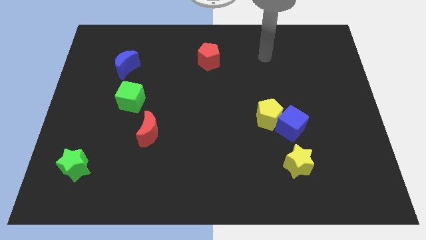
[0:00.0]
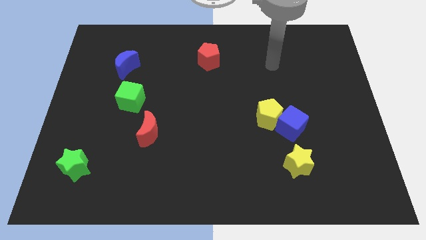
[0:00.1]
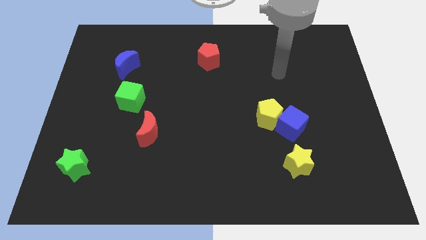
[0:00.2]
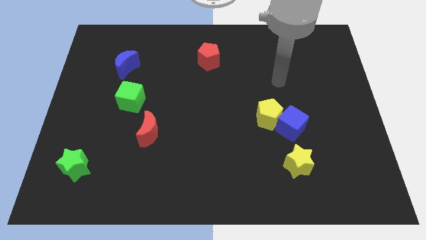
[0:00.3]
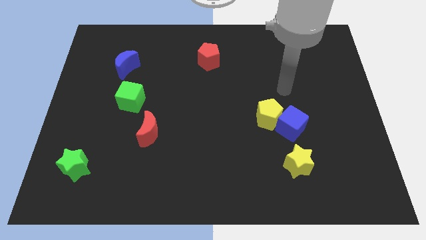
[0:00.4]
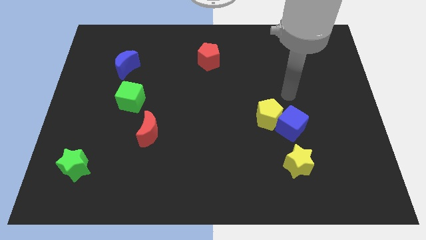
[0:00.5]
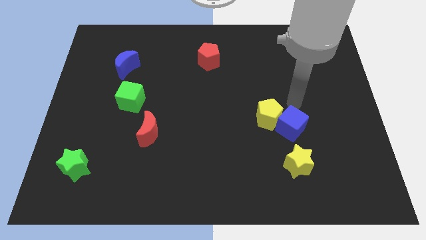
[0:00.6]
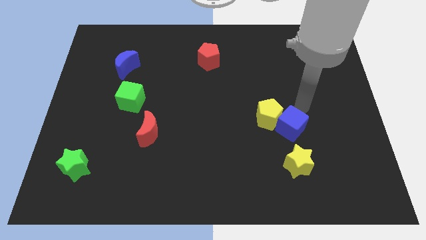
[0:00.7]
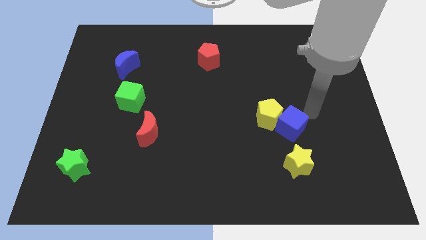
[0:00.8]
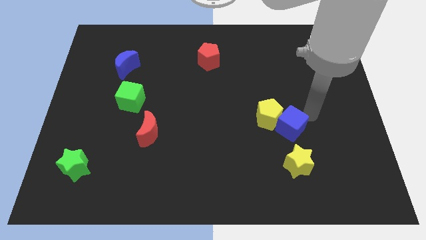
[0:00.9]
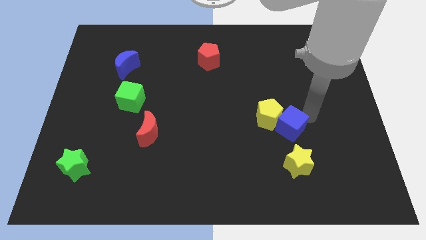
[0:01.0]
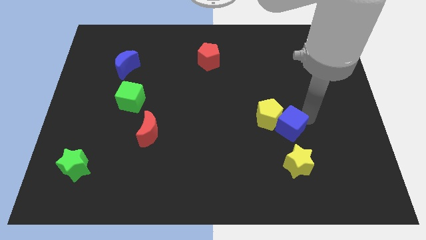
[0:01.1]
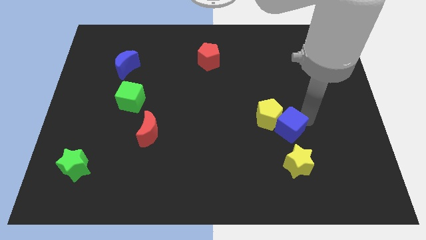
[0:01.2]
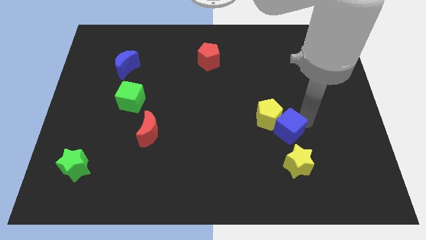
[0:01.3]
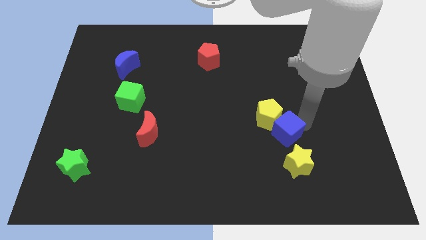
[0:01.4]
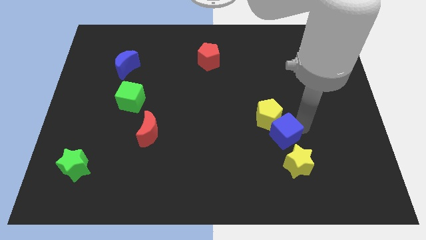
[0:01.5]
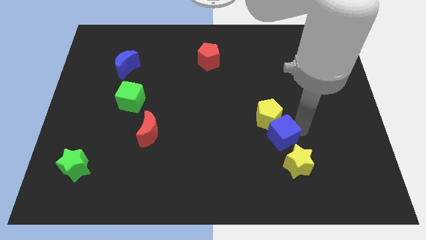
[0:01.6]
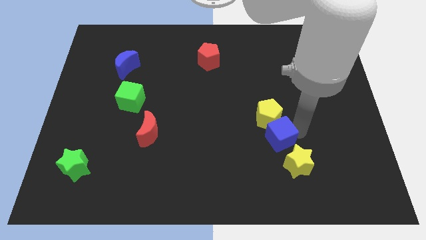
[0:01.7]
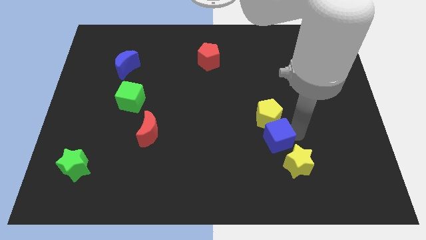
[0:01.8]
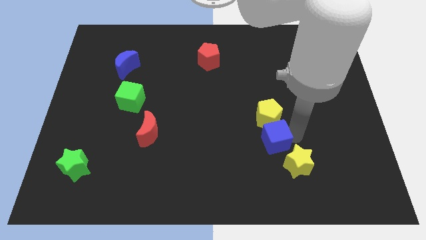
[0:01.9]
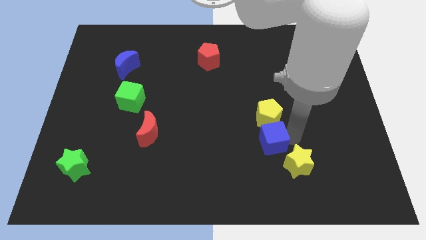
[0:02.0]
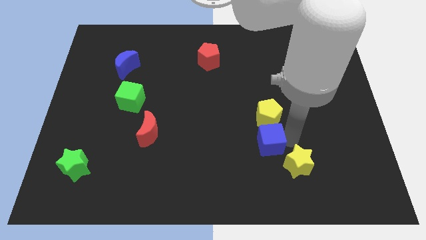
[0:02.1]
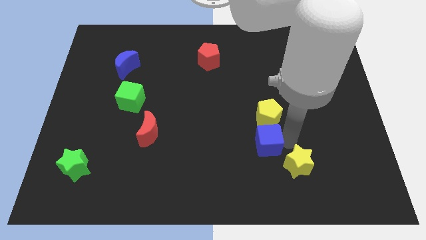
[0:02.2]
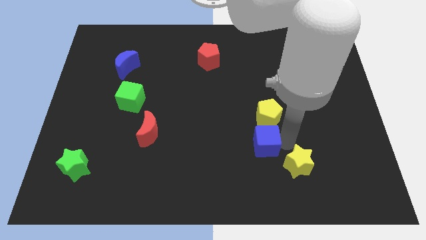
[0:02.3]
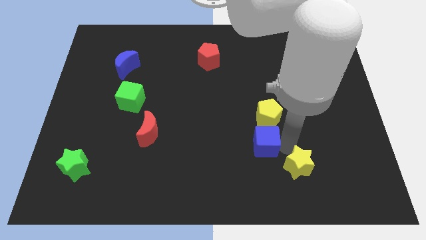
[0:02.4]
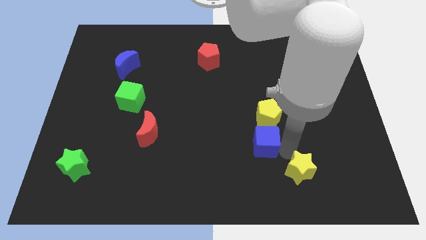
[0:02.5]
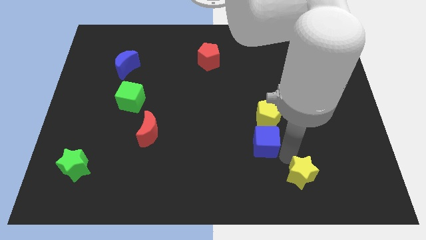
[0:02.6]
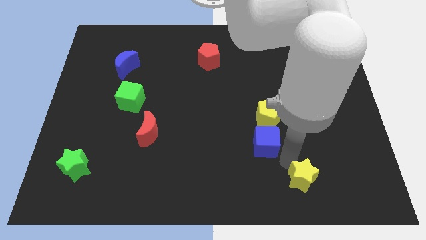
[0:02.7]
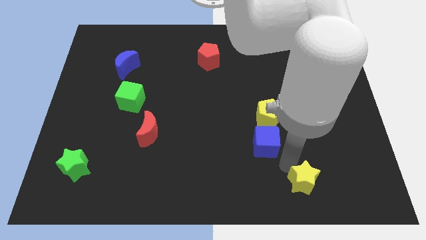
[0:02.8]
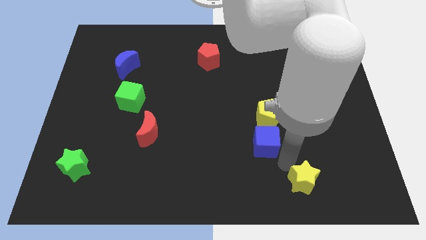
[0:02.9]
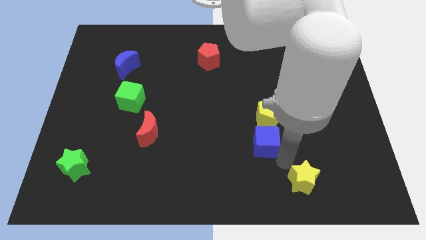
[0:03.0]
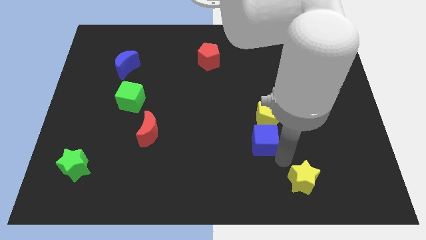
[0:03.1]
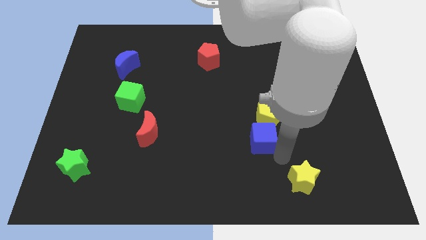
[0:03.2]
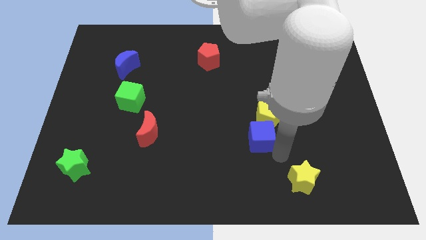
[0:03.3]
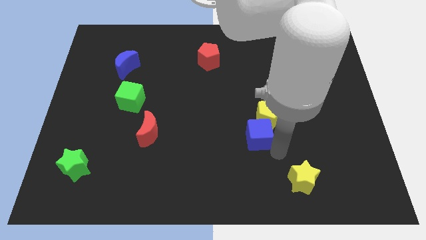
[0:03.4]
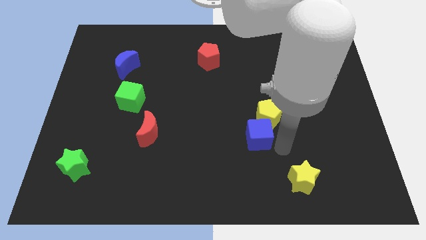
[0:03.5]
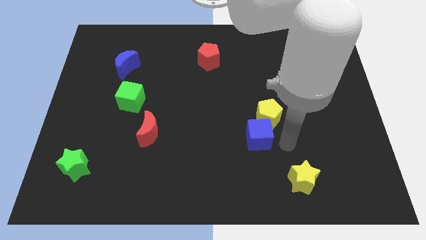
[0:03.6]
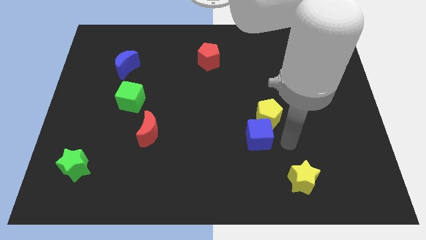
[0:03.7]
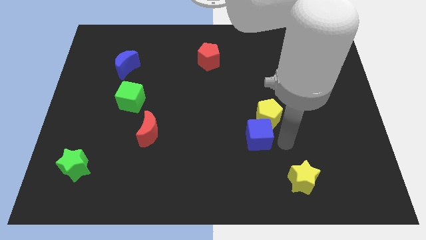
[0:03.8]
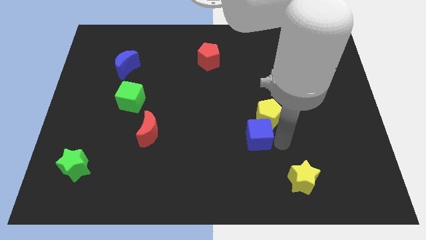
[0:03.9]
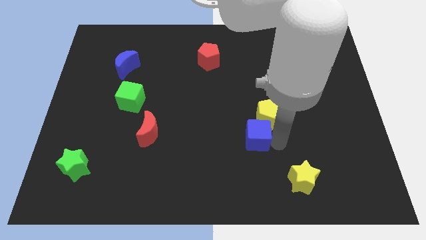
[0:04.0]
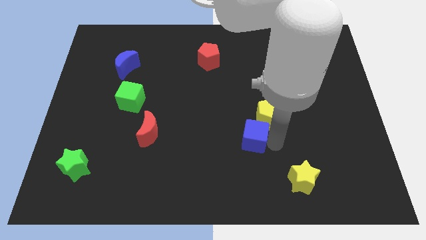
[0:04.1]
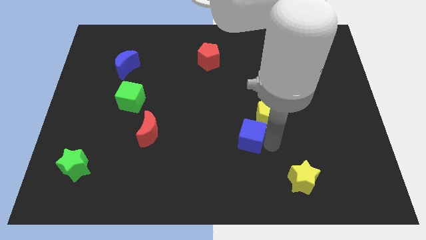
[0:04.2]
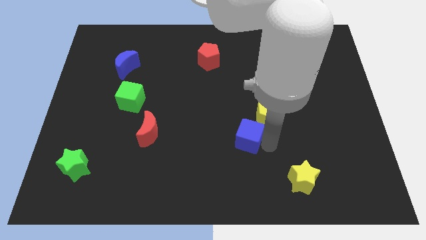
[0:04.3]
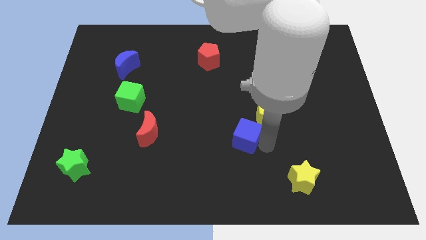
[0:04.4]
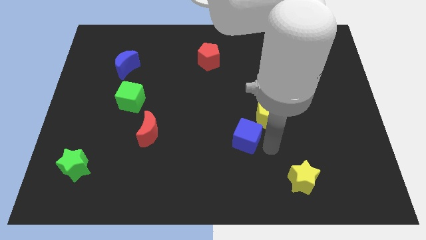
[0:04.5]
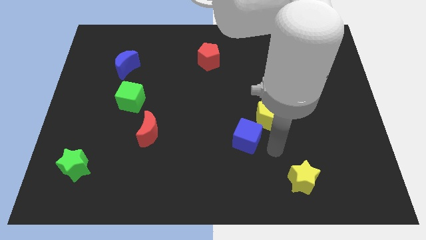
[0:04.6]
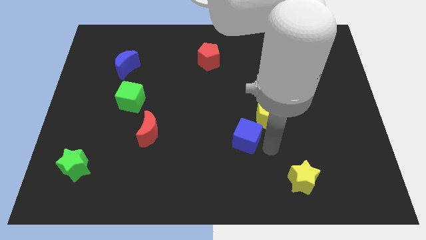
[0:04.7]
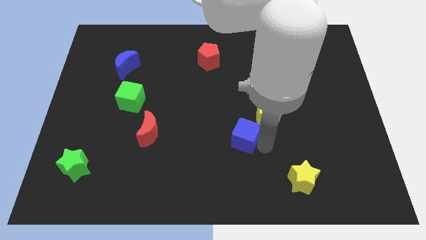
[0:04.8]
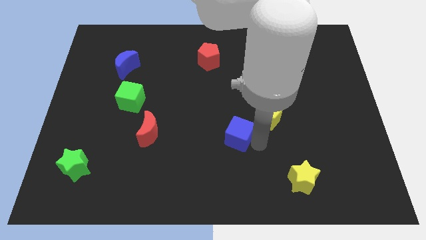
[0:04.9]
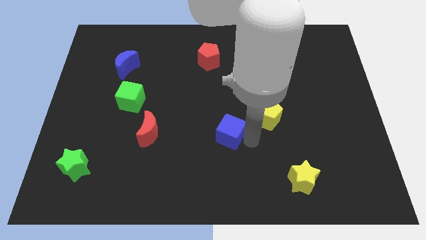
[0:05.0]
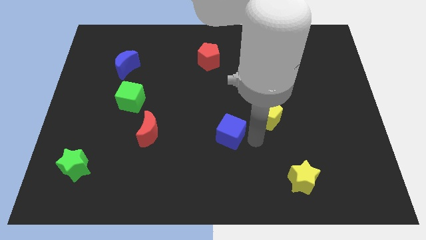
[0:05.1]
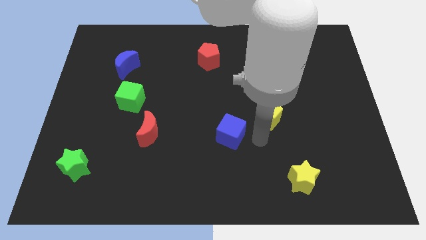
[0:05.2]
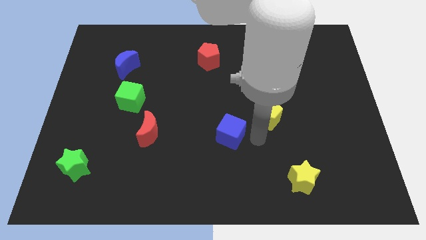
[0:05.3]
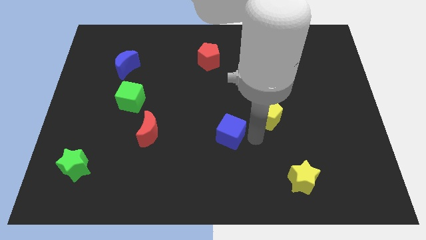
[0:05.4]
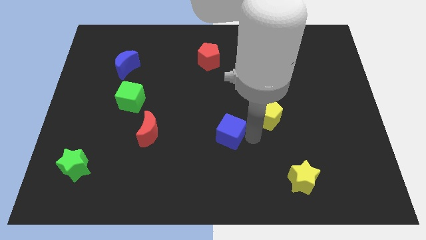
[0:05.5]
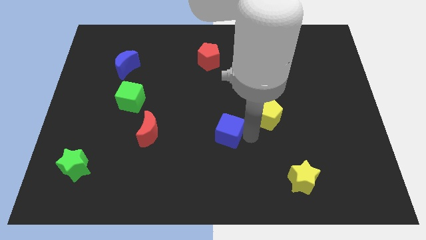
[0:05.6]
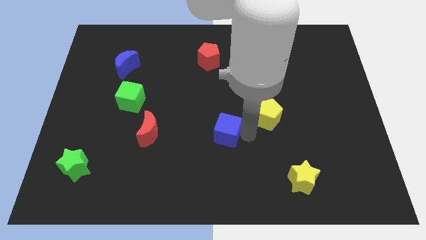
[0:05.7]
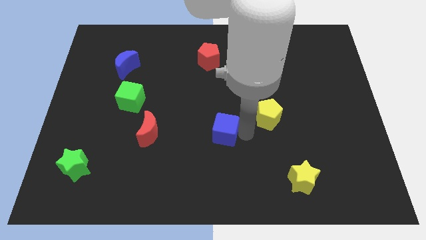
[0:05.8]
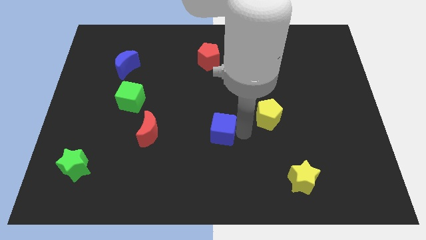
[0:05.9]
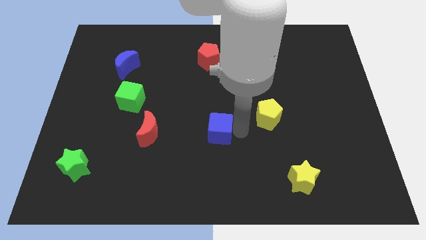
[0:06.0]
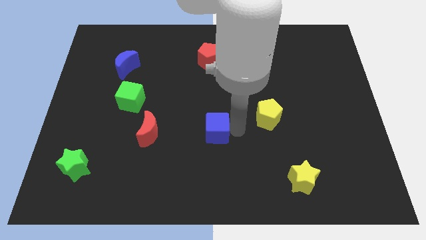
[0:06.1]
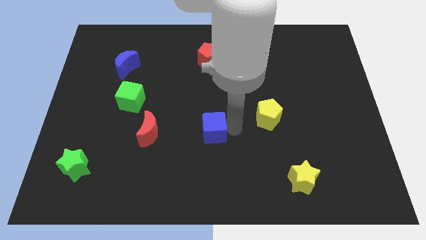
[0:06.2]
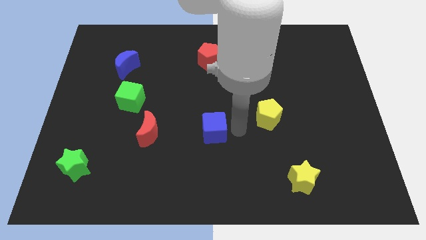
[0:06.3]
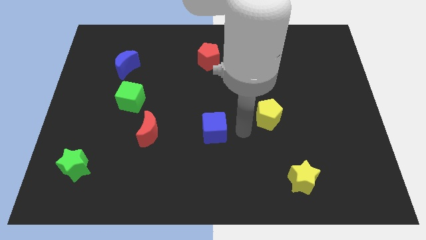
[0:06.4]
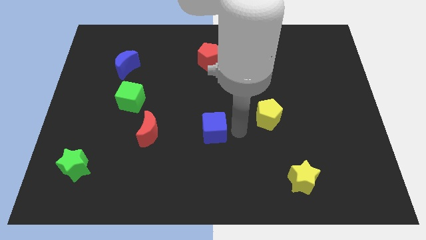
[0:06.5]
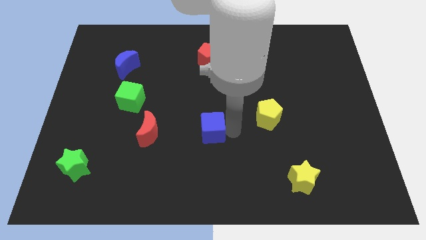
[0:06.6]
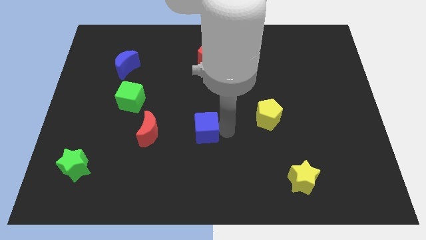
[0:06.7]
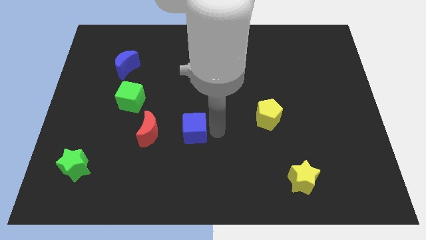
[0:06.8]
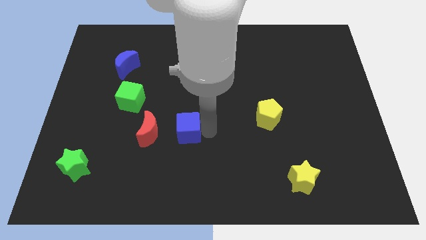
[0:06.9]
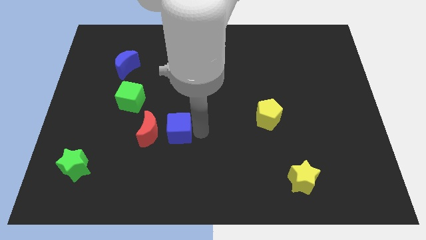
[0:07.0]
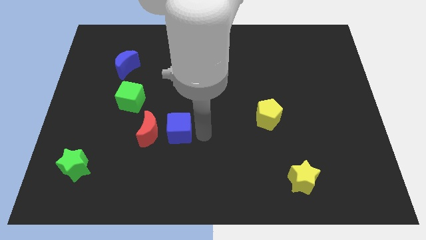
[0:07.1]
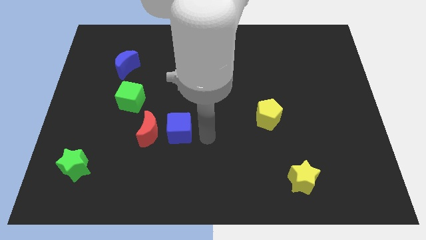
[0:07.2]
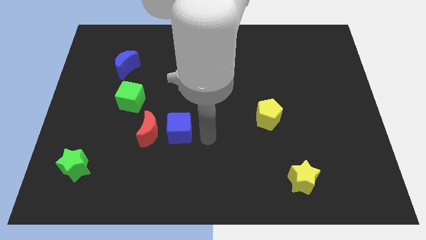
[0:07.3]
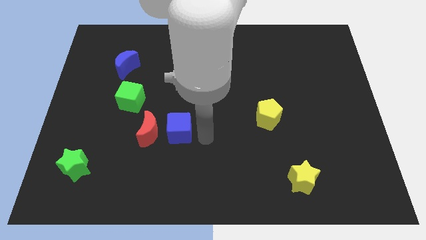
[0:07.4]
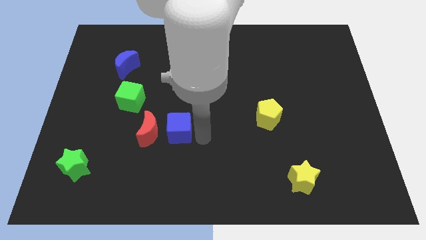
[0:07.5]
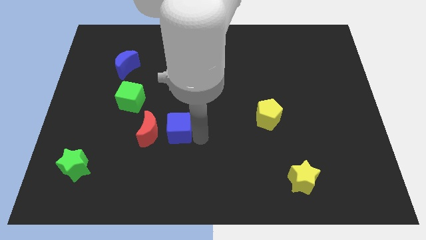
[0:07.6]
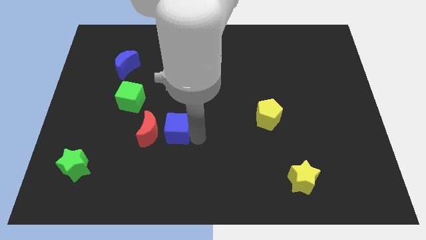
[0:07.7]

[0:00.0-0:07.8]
move the blue cube close to the red moon
